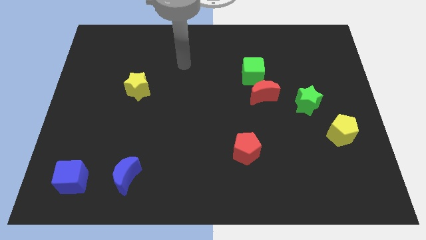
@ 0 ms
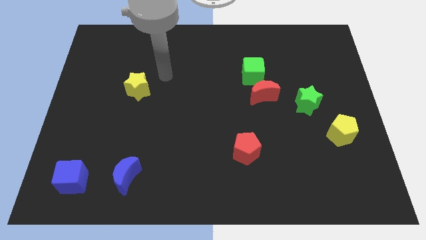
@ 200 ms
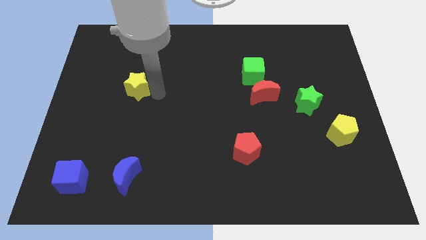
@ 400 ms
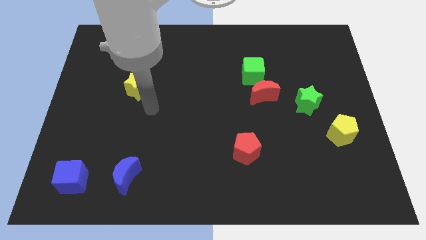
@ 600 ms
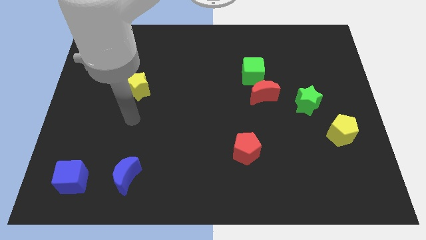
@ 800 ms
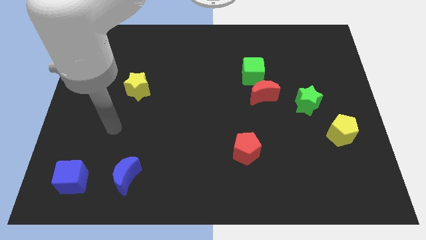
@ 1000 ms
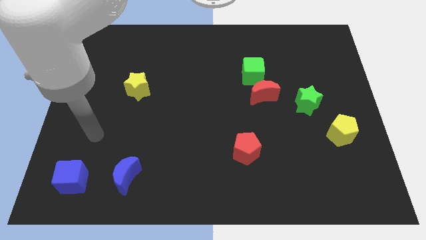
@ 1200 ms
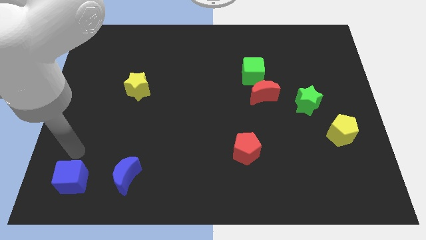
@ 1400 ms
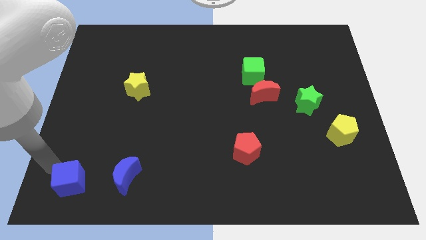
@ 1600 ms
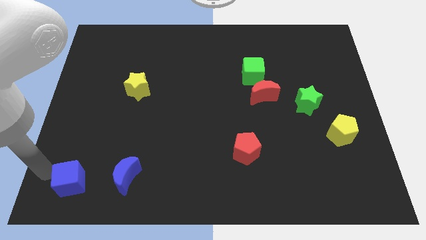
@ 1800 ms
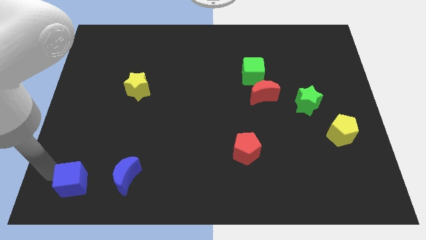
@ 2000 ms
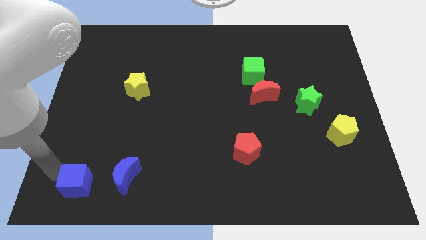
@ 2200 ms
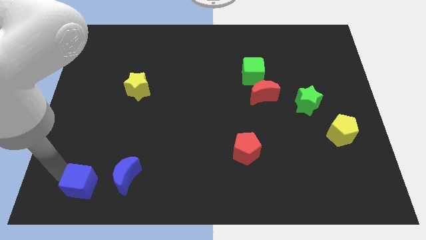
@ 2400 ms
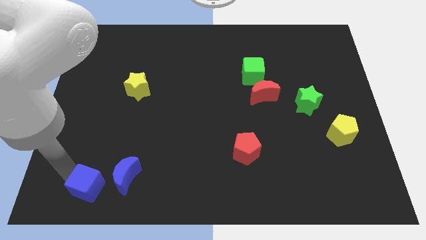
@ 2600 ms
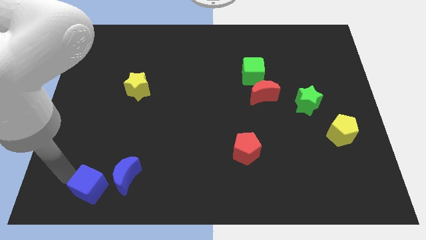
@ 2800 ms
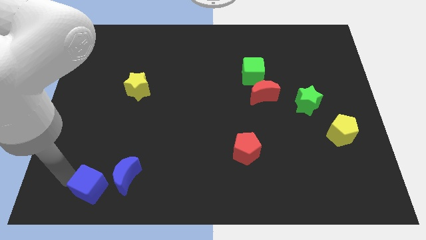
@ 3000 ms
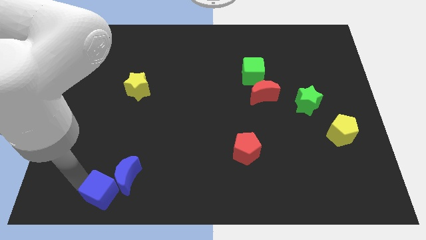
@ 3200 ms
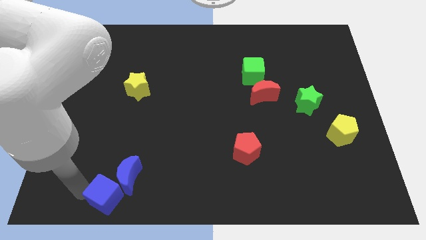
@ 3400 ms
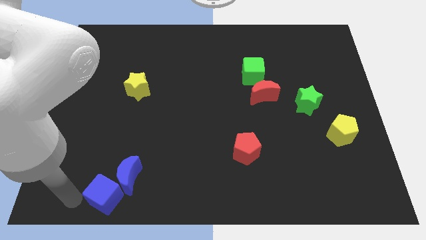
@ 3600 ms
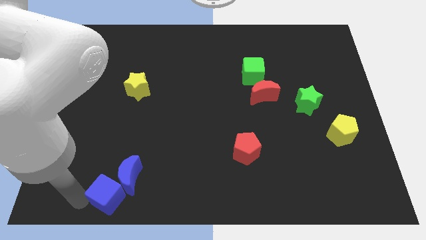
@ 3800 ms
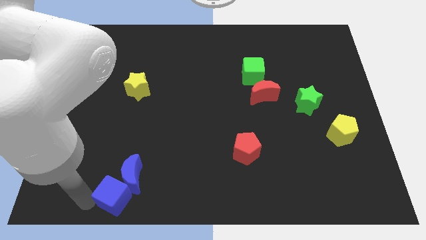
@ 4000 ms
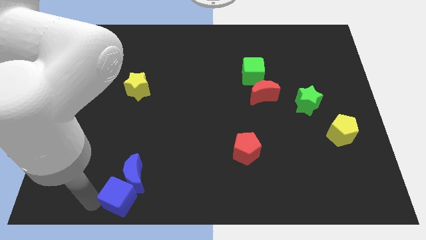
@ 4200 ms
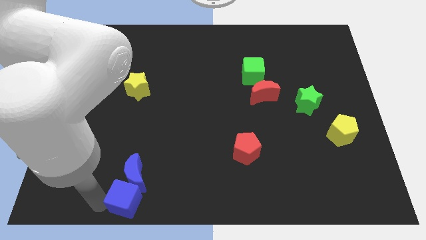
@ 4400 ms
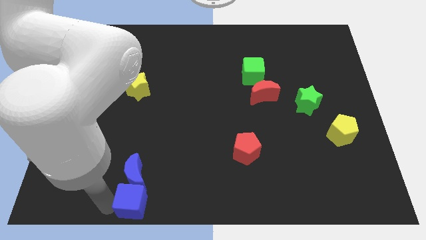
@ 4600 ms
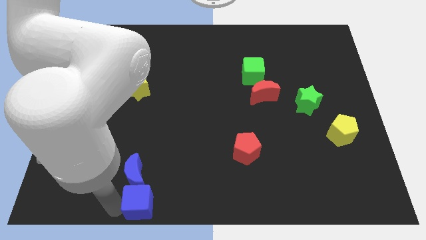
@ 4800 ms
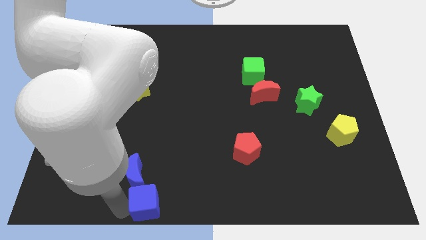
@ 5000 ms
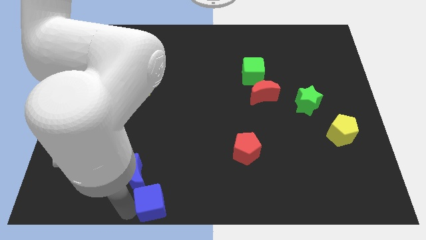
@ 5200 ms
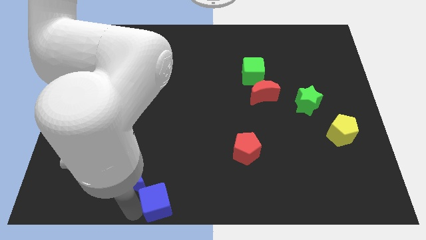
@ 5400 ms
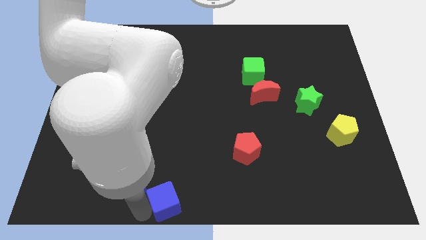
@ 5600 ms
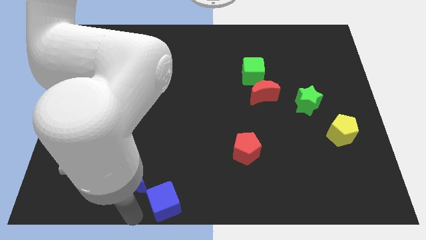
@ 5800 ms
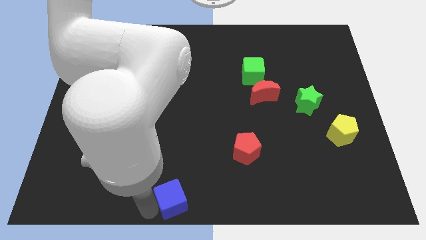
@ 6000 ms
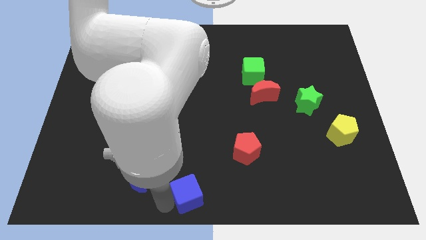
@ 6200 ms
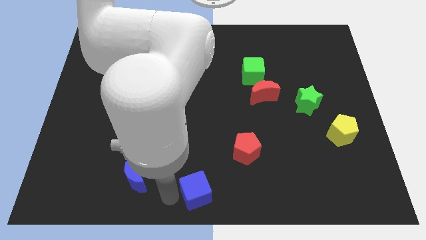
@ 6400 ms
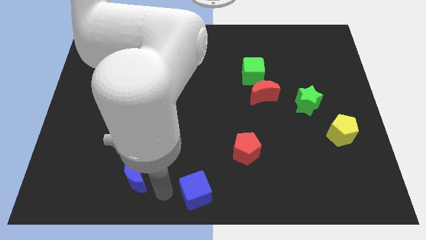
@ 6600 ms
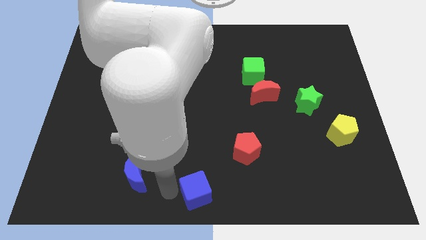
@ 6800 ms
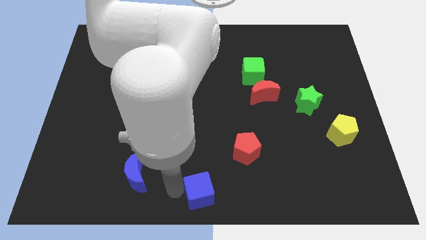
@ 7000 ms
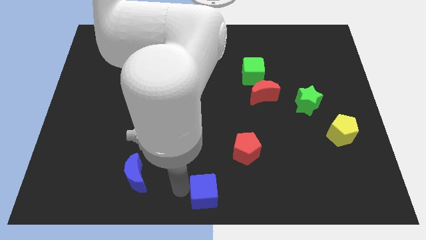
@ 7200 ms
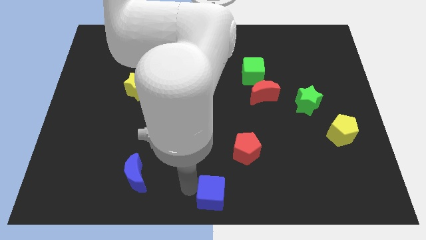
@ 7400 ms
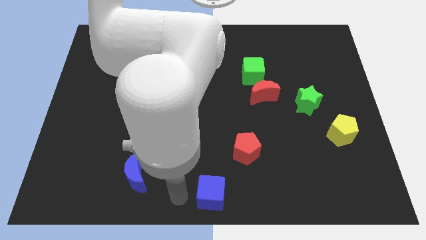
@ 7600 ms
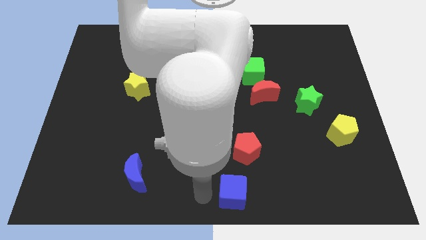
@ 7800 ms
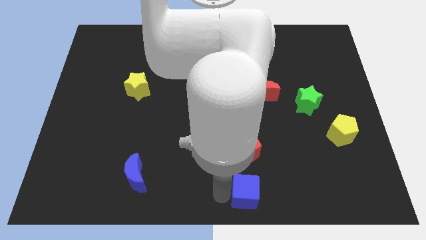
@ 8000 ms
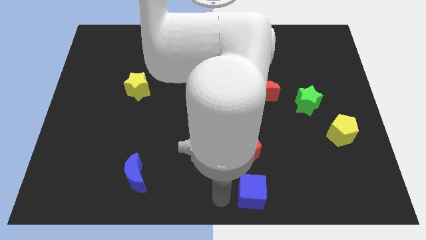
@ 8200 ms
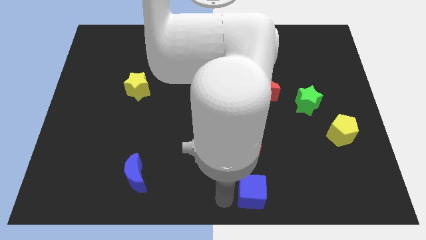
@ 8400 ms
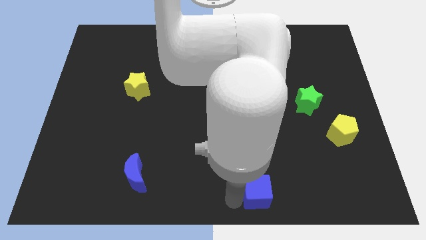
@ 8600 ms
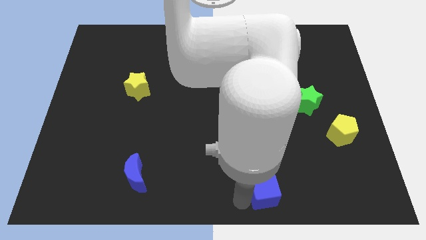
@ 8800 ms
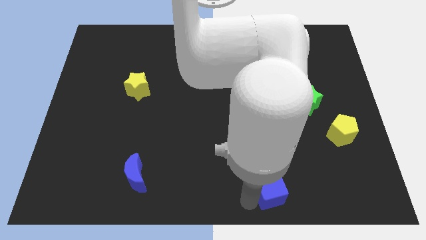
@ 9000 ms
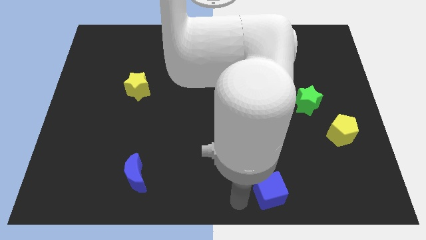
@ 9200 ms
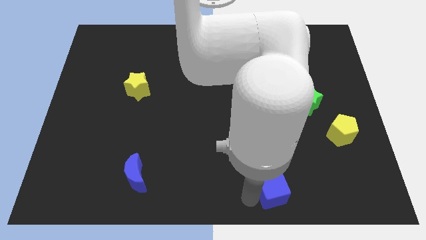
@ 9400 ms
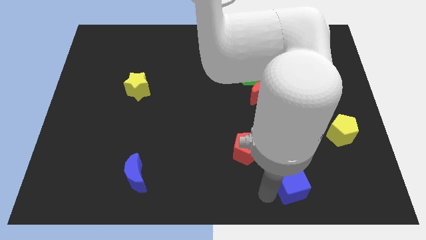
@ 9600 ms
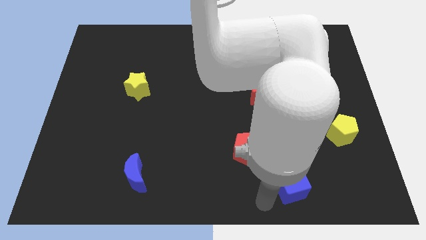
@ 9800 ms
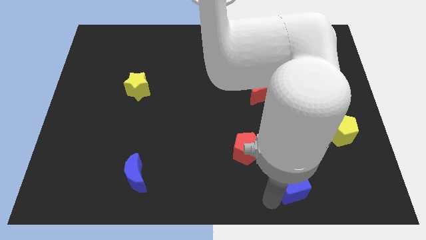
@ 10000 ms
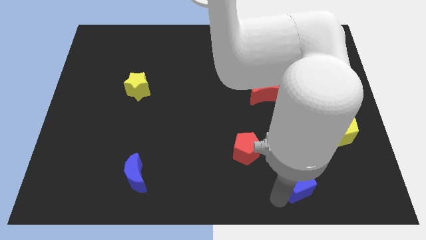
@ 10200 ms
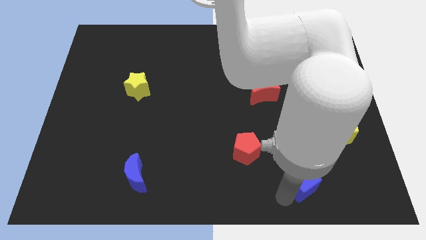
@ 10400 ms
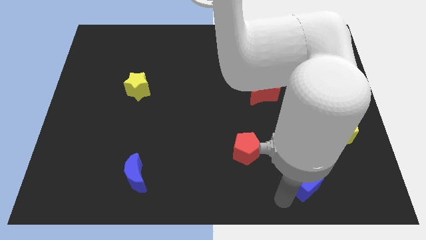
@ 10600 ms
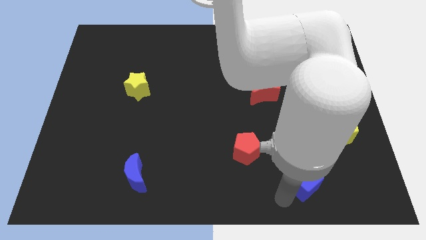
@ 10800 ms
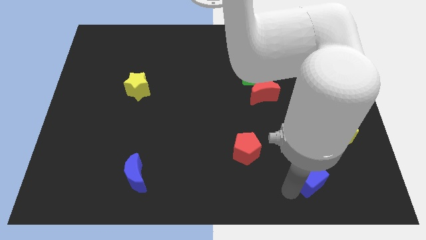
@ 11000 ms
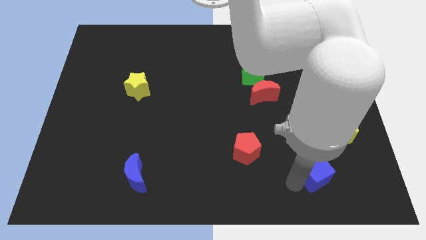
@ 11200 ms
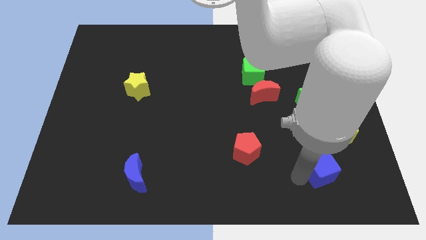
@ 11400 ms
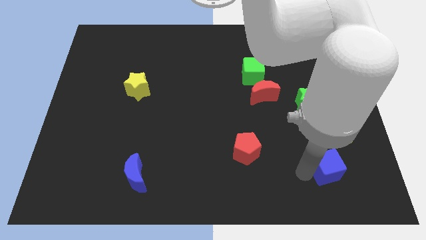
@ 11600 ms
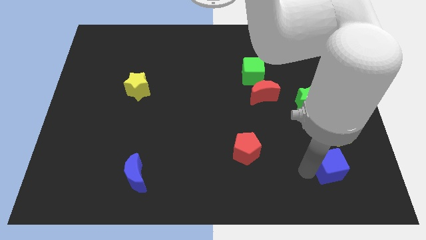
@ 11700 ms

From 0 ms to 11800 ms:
put the blue cube to the bottom of the yellow pentagon

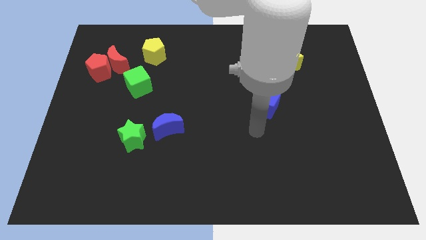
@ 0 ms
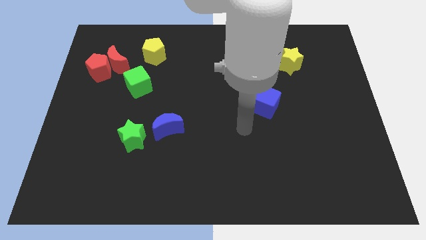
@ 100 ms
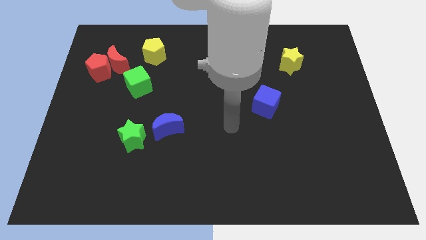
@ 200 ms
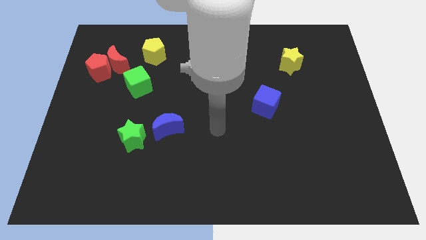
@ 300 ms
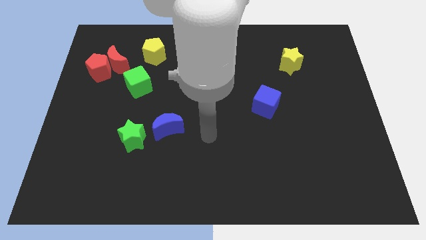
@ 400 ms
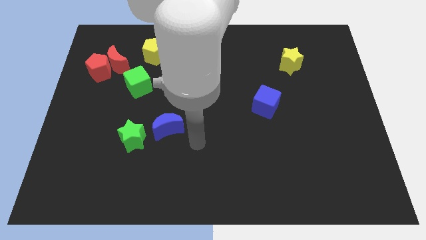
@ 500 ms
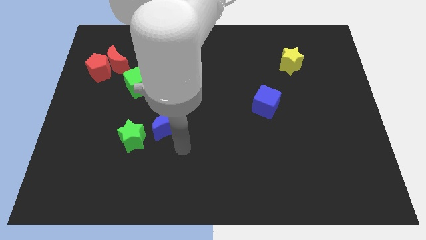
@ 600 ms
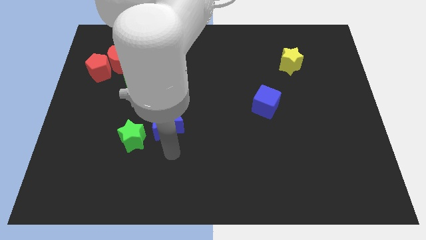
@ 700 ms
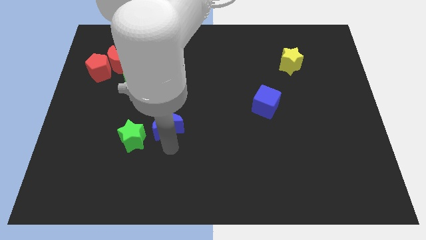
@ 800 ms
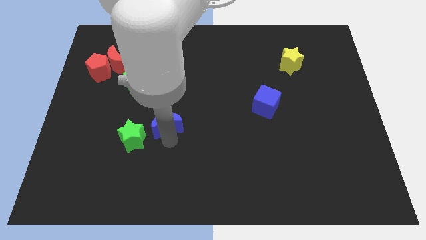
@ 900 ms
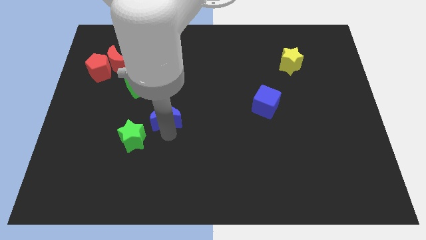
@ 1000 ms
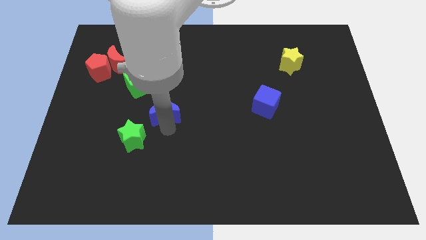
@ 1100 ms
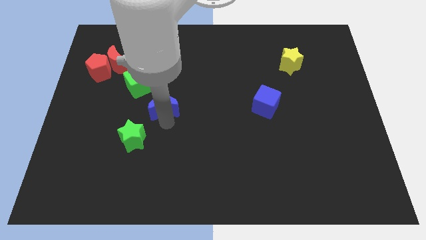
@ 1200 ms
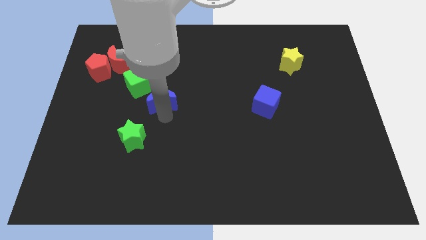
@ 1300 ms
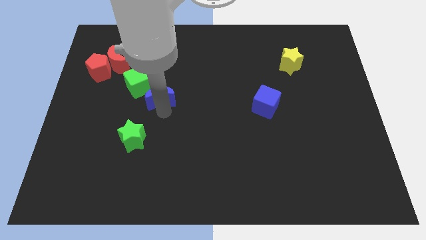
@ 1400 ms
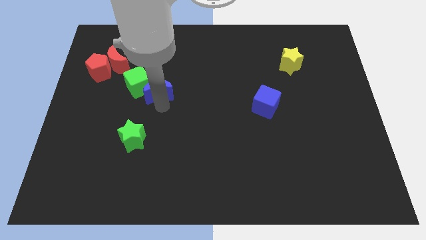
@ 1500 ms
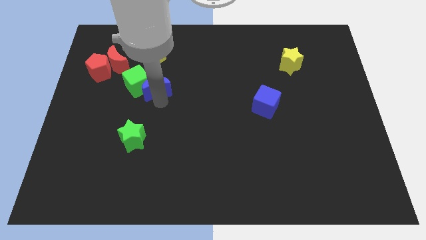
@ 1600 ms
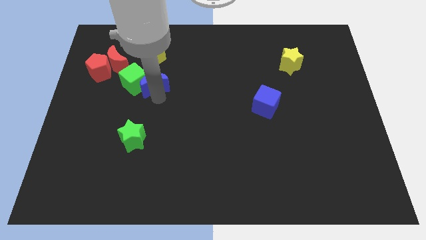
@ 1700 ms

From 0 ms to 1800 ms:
slide the blue moon to the top right of the green cube
